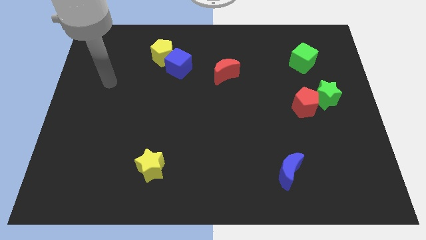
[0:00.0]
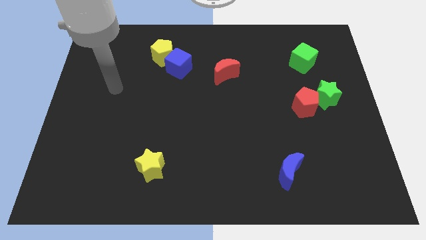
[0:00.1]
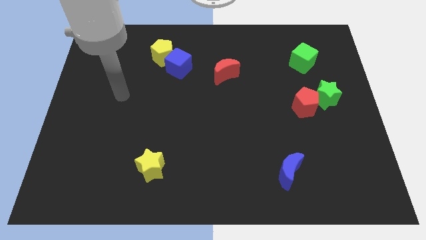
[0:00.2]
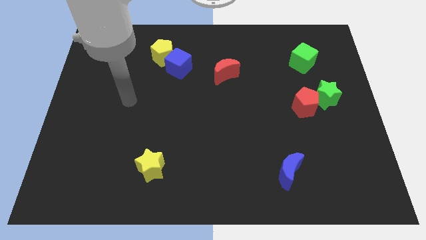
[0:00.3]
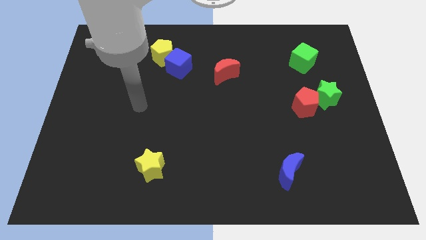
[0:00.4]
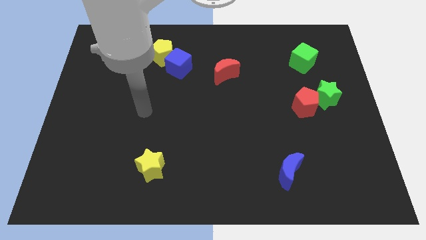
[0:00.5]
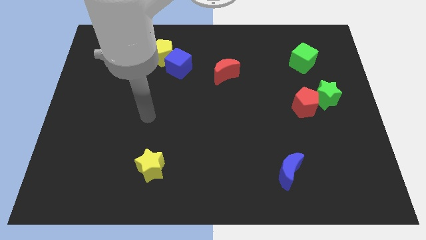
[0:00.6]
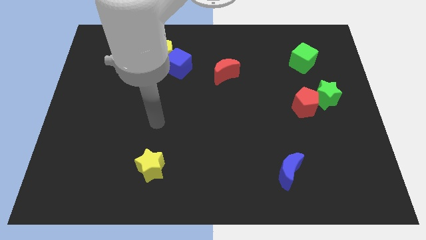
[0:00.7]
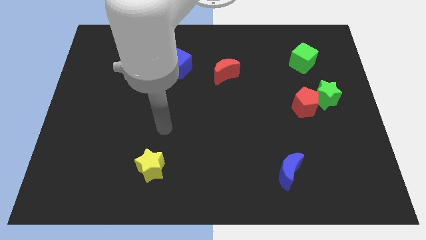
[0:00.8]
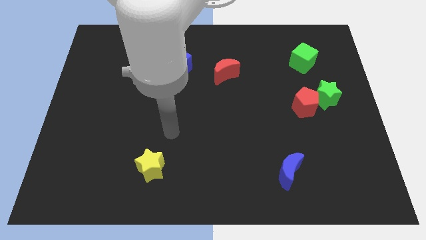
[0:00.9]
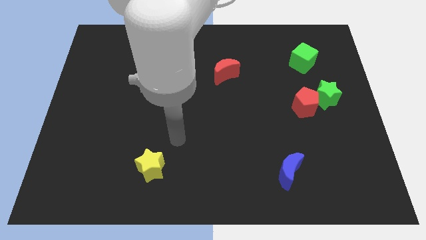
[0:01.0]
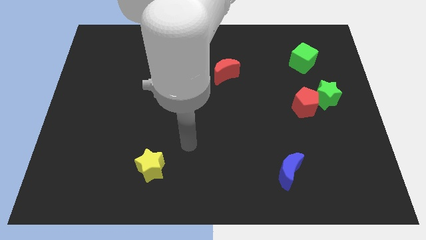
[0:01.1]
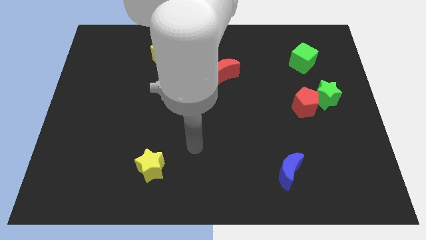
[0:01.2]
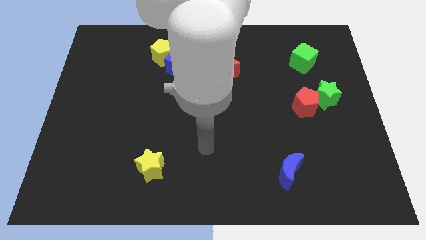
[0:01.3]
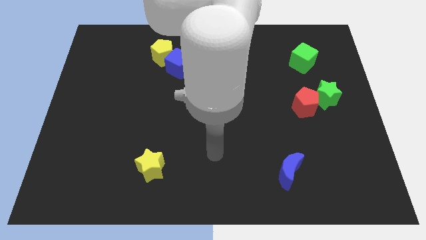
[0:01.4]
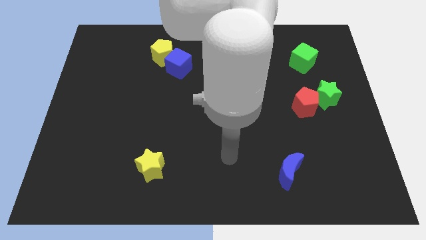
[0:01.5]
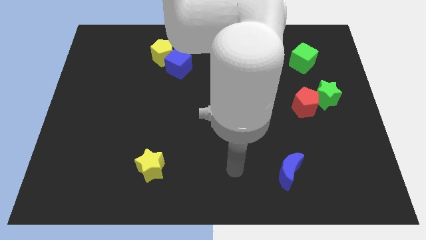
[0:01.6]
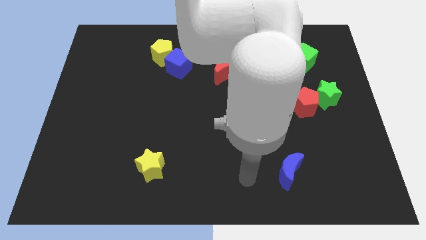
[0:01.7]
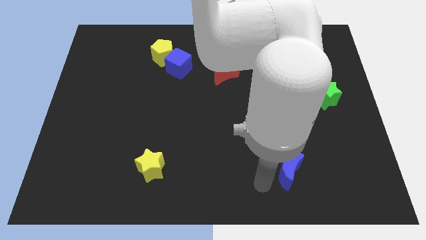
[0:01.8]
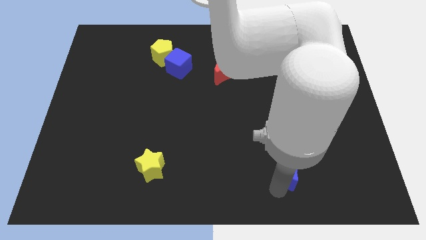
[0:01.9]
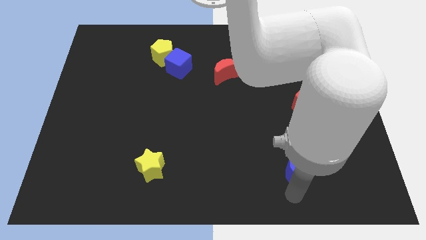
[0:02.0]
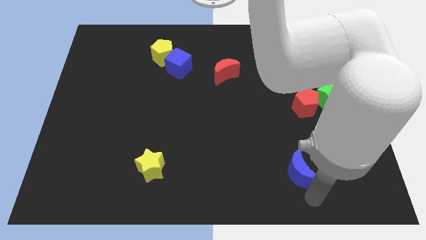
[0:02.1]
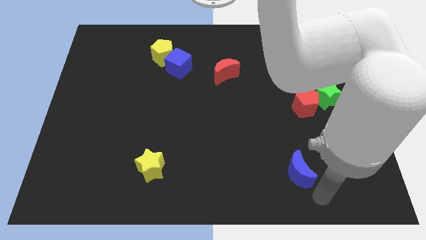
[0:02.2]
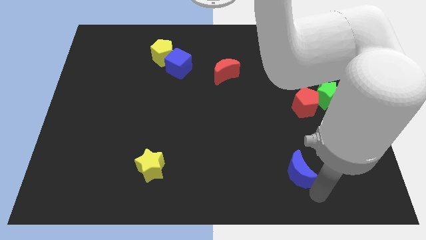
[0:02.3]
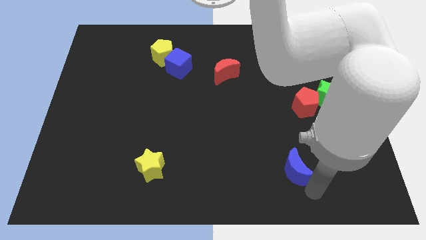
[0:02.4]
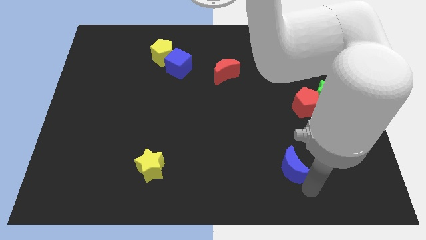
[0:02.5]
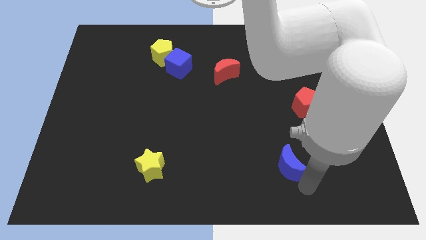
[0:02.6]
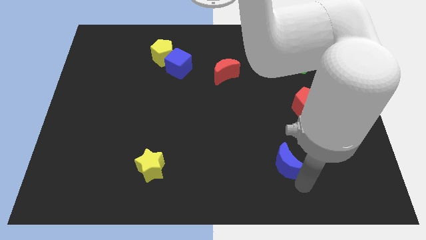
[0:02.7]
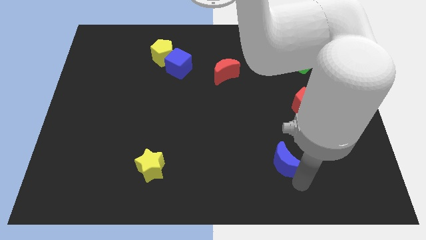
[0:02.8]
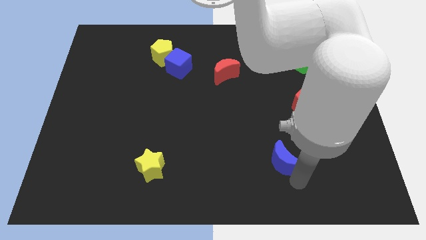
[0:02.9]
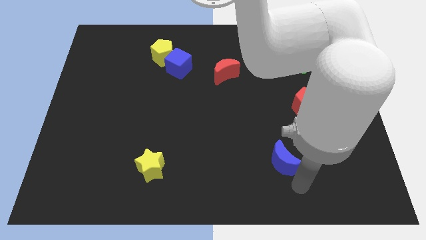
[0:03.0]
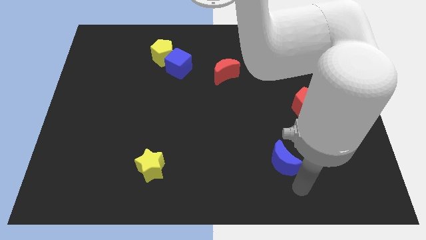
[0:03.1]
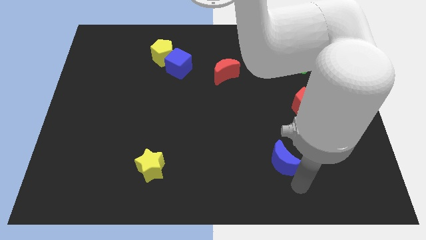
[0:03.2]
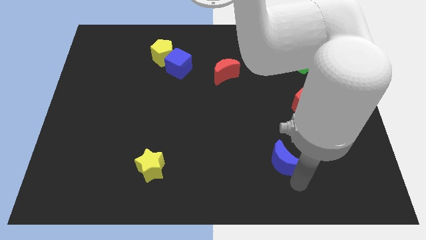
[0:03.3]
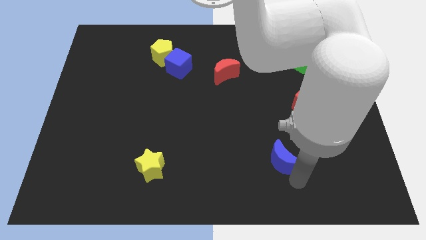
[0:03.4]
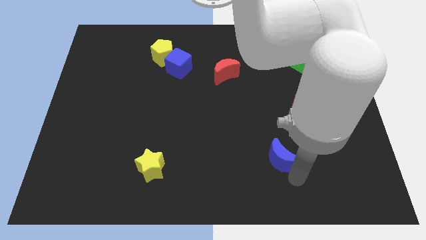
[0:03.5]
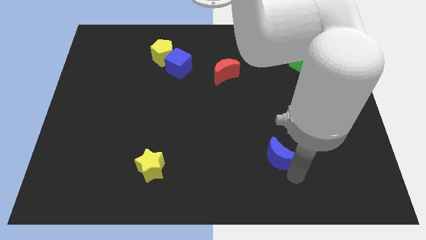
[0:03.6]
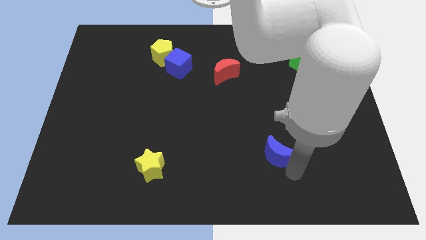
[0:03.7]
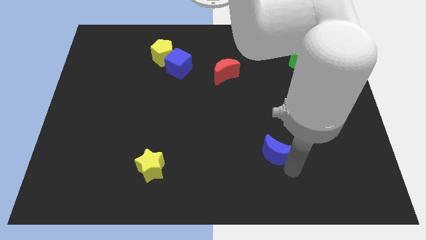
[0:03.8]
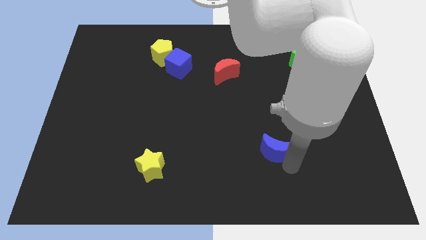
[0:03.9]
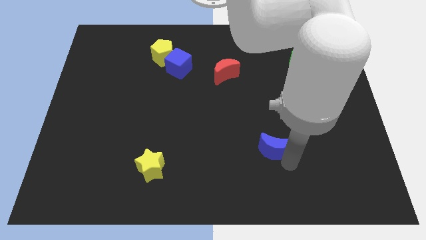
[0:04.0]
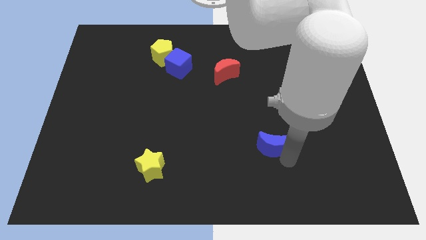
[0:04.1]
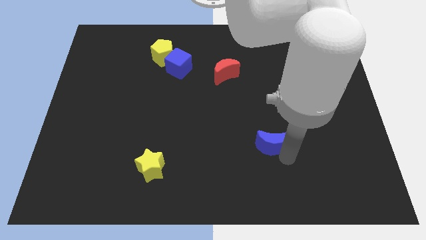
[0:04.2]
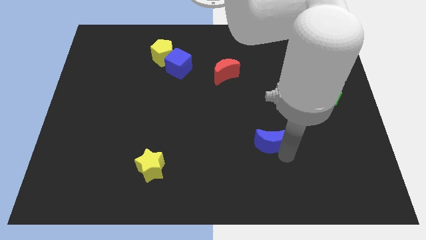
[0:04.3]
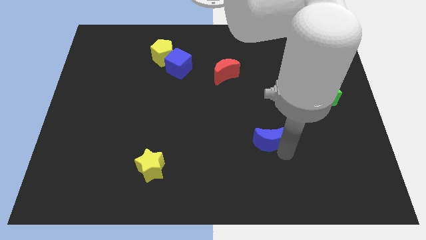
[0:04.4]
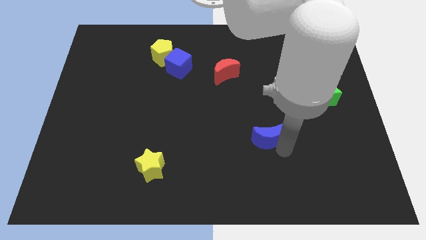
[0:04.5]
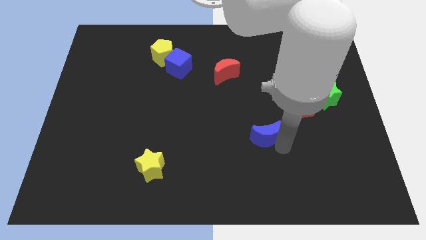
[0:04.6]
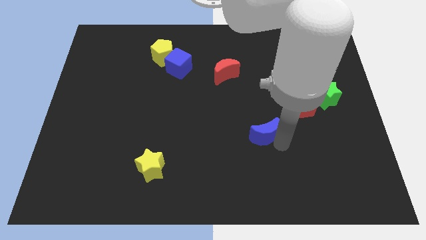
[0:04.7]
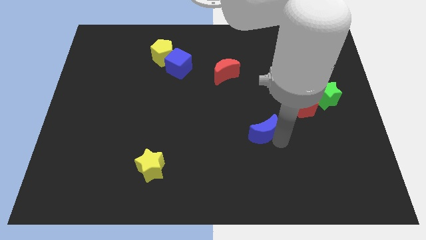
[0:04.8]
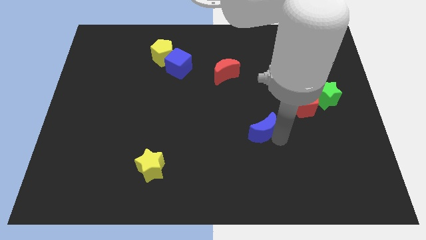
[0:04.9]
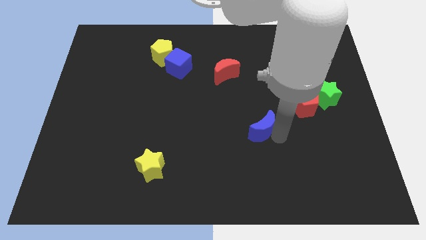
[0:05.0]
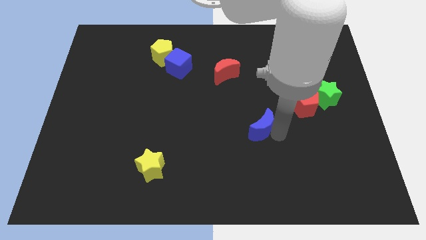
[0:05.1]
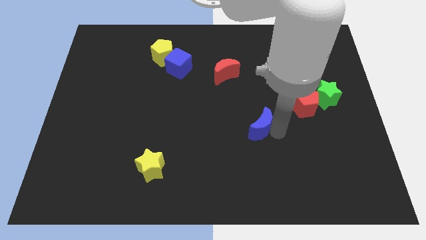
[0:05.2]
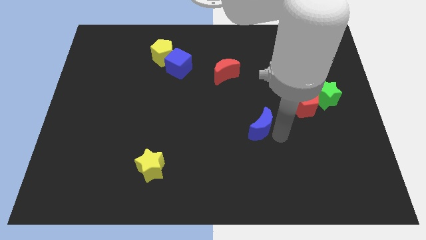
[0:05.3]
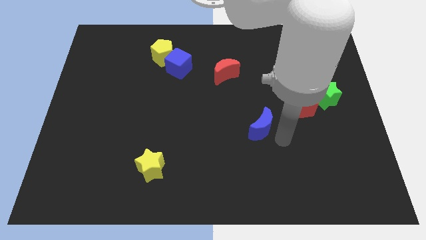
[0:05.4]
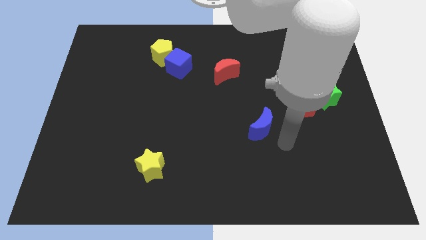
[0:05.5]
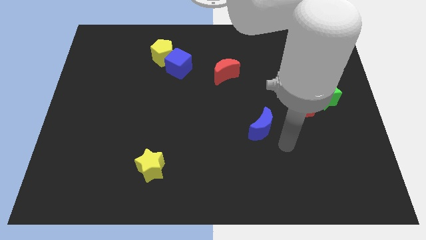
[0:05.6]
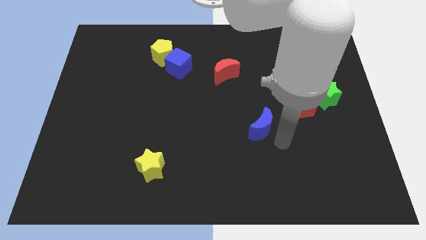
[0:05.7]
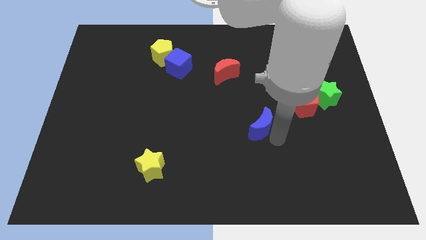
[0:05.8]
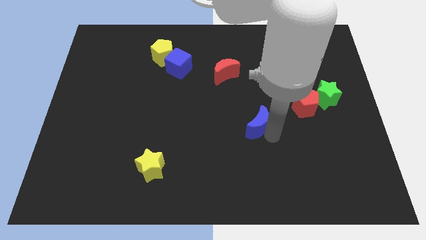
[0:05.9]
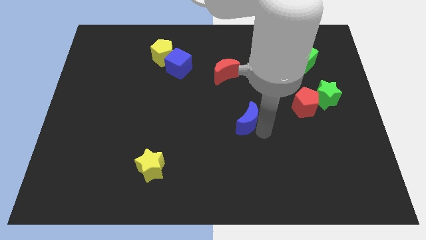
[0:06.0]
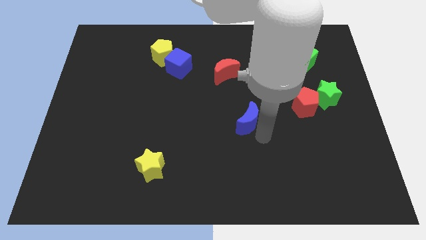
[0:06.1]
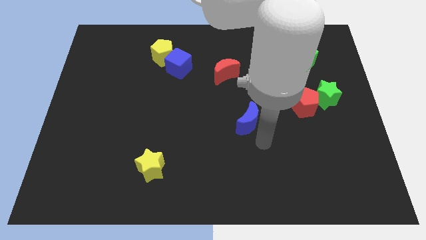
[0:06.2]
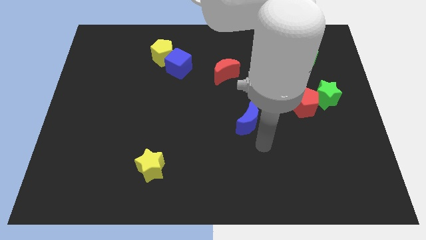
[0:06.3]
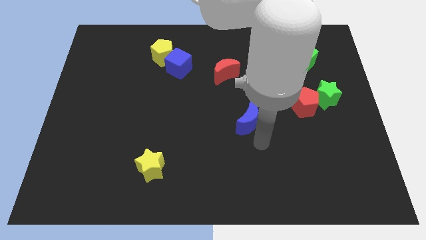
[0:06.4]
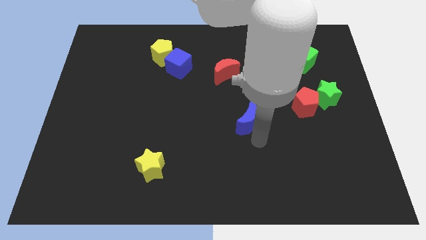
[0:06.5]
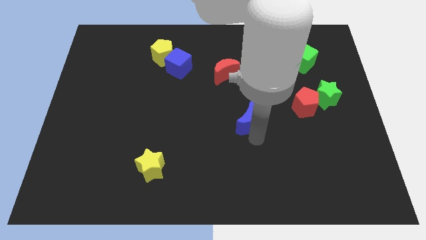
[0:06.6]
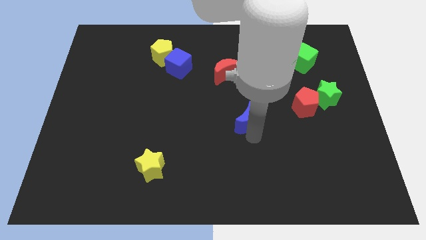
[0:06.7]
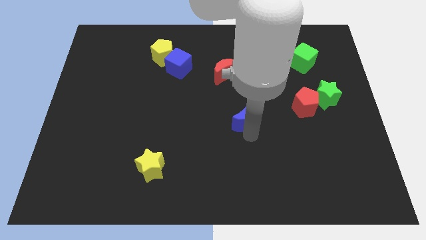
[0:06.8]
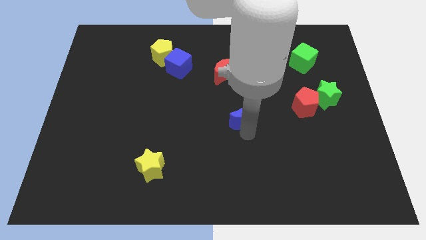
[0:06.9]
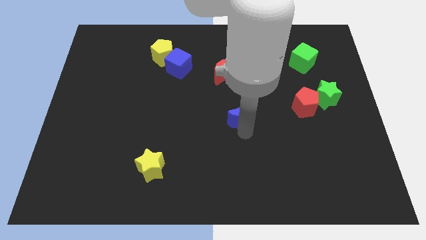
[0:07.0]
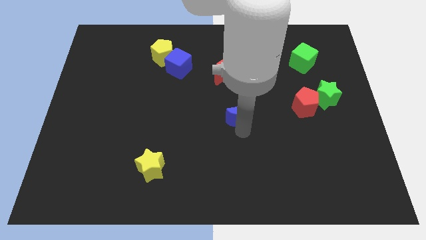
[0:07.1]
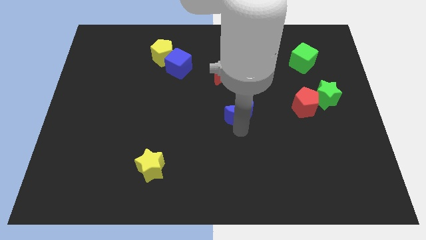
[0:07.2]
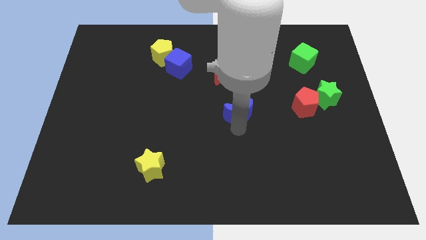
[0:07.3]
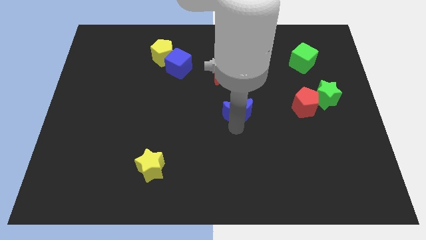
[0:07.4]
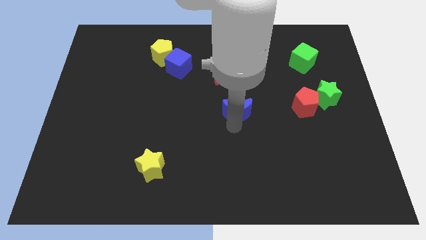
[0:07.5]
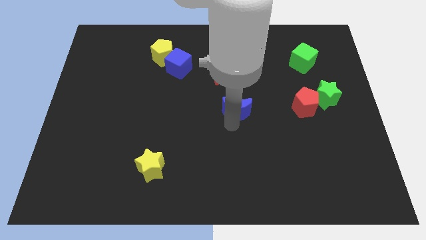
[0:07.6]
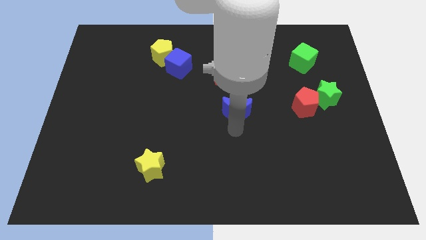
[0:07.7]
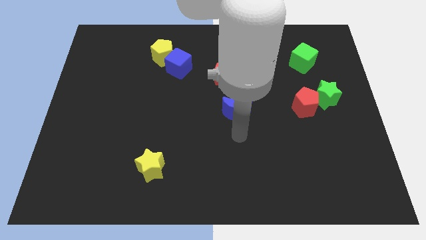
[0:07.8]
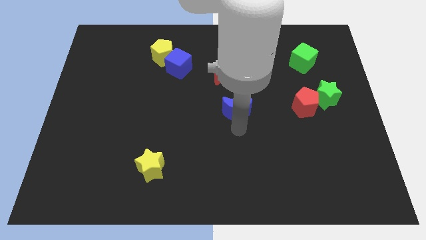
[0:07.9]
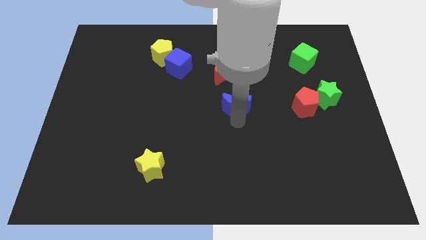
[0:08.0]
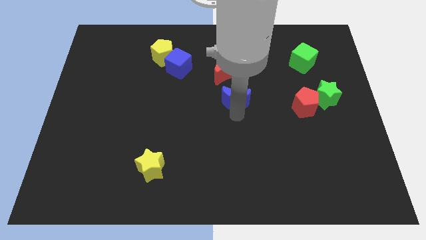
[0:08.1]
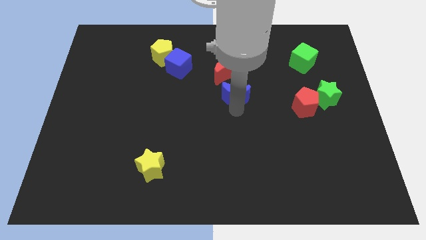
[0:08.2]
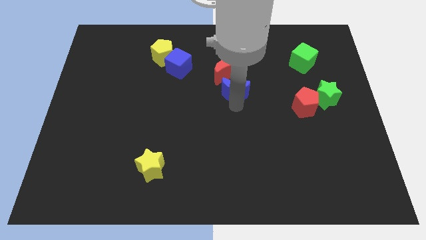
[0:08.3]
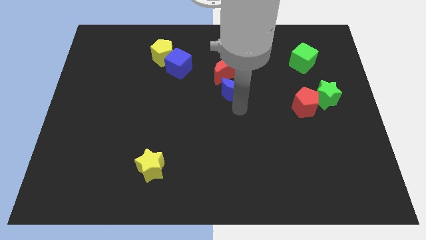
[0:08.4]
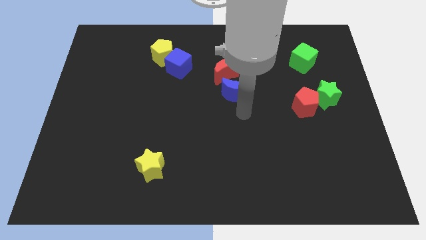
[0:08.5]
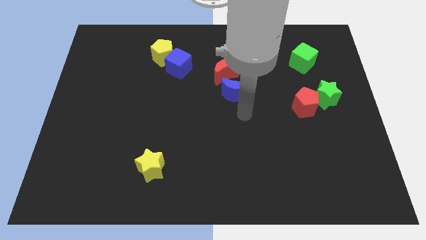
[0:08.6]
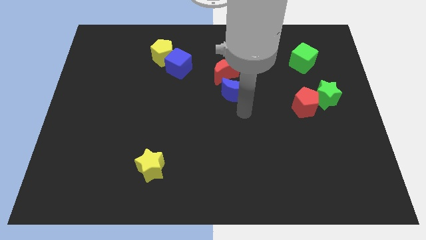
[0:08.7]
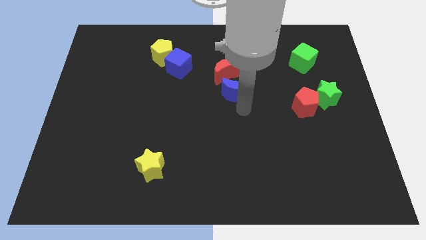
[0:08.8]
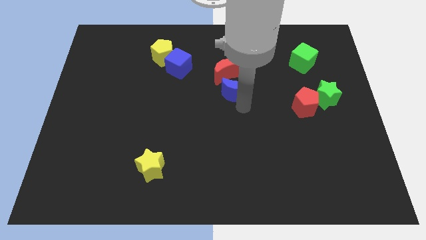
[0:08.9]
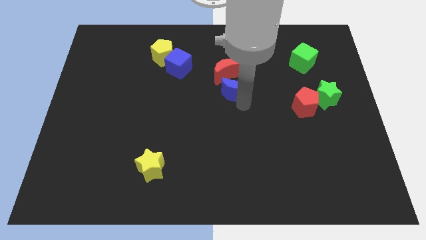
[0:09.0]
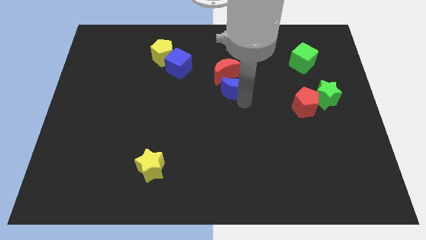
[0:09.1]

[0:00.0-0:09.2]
push the blue moon to the red moon
